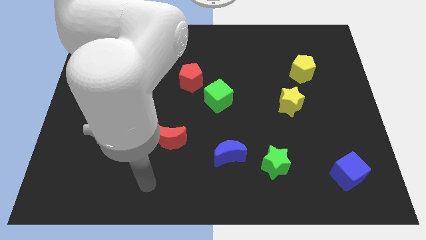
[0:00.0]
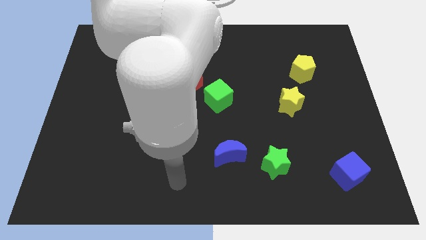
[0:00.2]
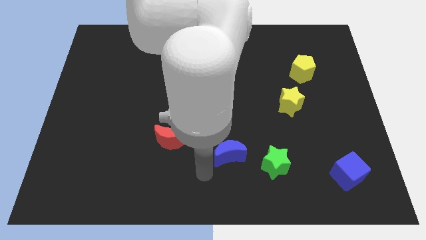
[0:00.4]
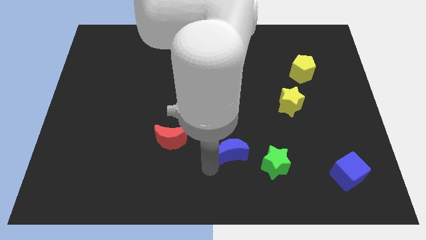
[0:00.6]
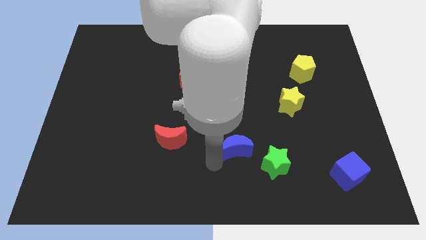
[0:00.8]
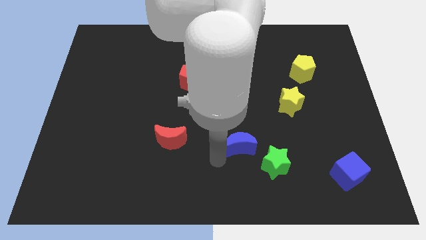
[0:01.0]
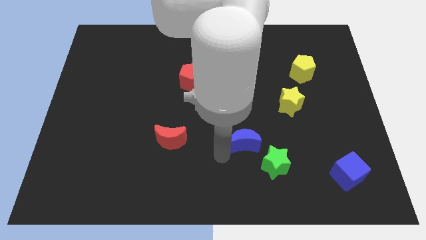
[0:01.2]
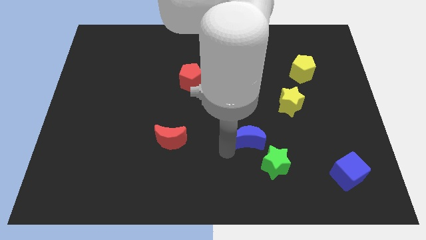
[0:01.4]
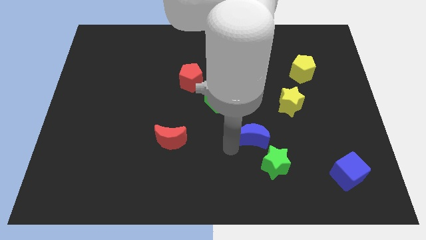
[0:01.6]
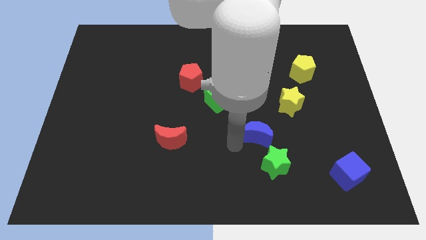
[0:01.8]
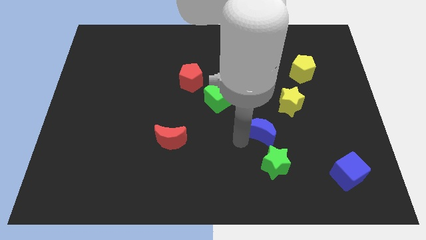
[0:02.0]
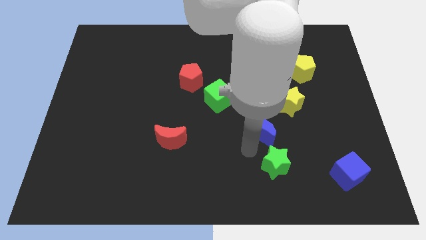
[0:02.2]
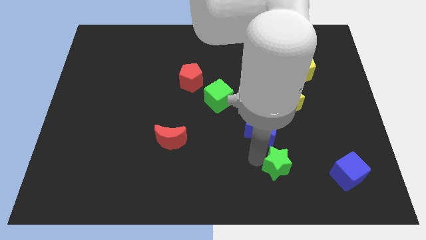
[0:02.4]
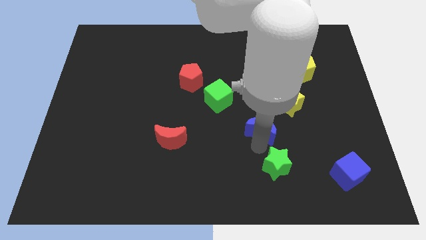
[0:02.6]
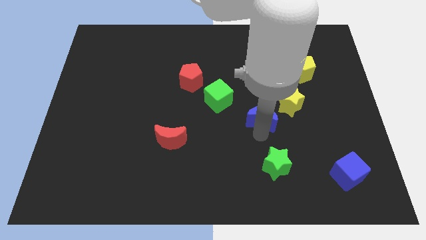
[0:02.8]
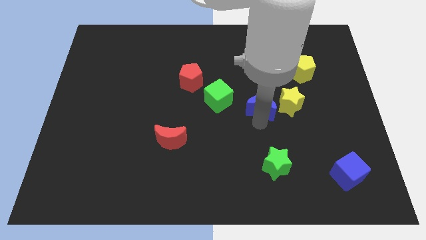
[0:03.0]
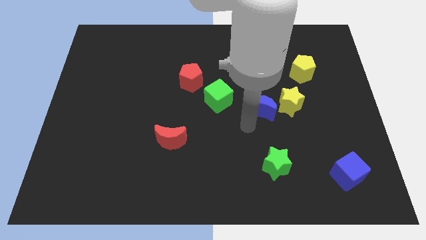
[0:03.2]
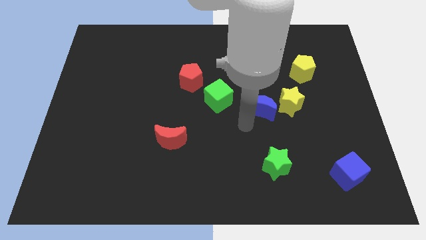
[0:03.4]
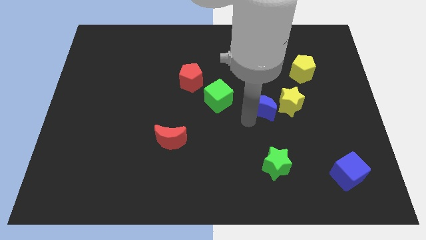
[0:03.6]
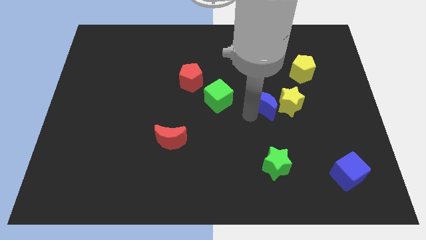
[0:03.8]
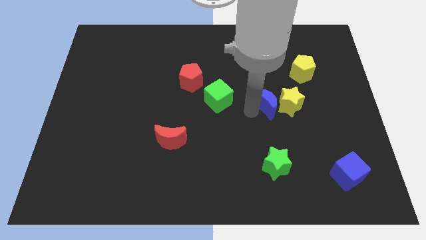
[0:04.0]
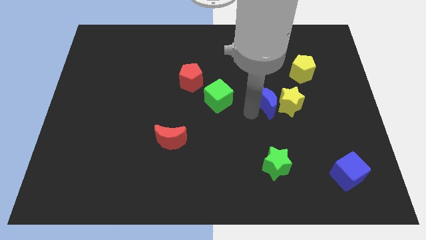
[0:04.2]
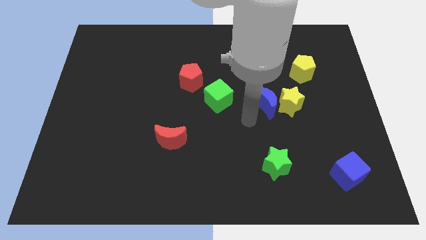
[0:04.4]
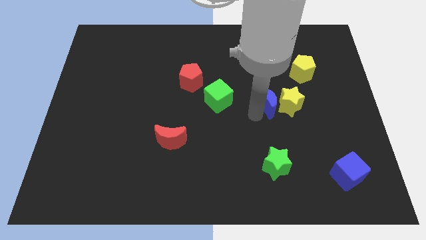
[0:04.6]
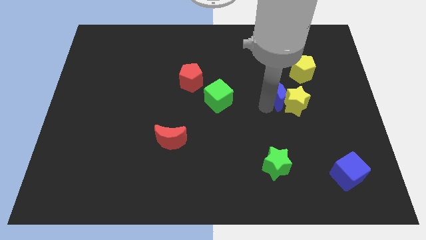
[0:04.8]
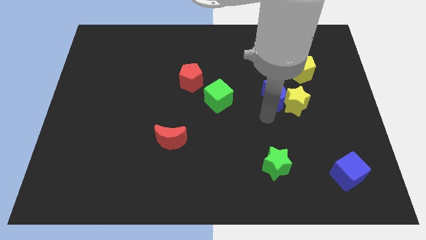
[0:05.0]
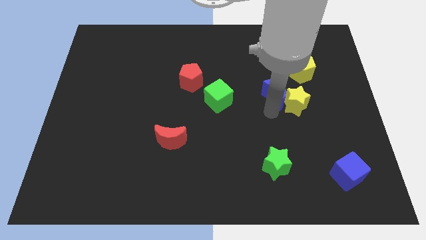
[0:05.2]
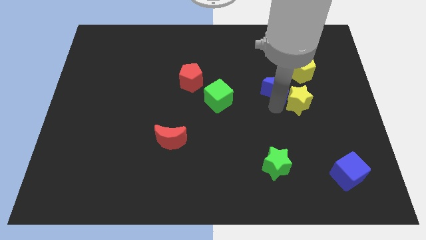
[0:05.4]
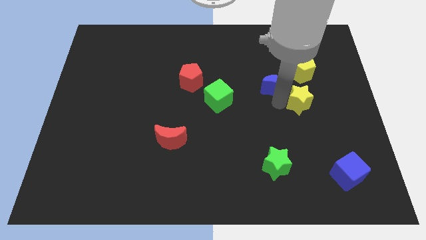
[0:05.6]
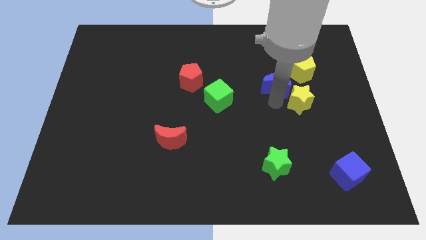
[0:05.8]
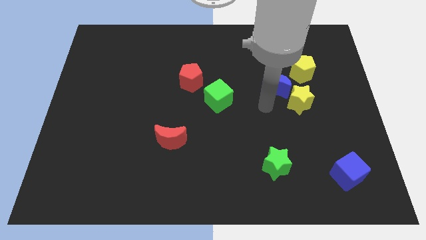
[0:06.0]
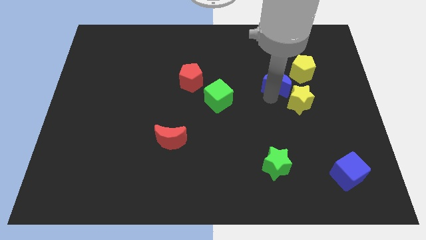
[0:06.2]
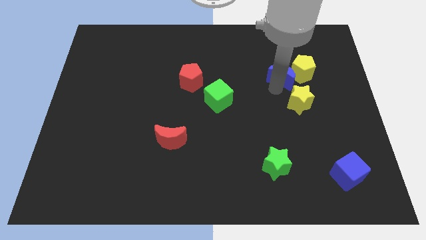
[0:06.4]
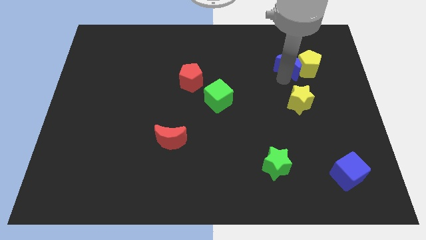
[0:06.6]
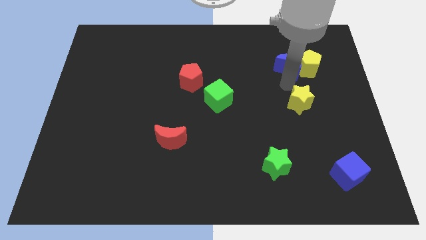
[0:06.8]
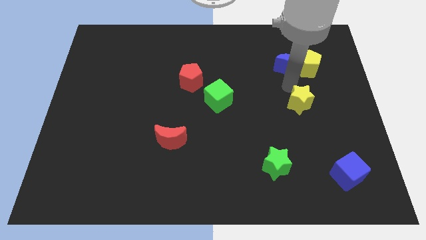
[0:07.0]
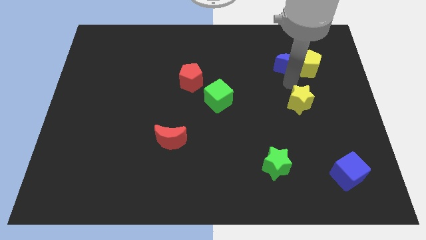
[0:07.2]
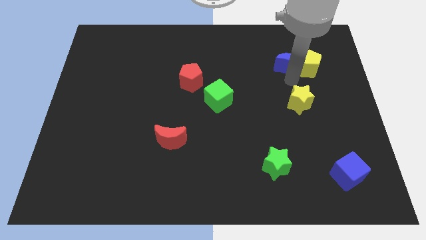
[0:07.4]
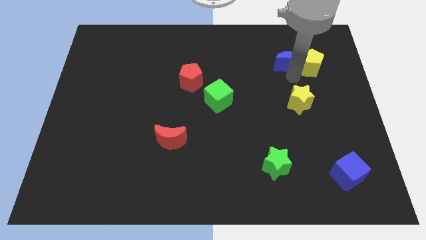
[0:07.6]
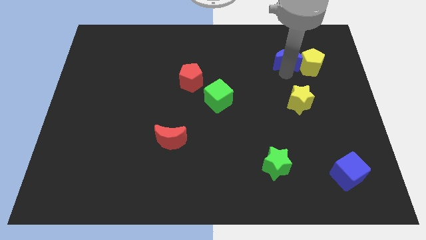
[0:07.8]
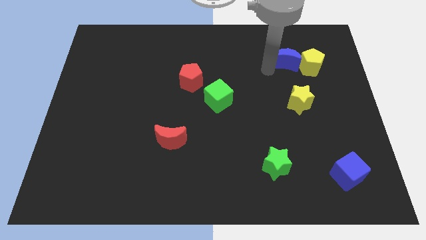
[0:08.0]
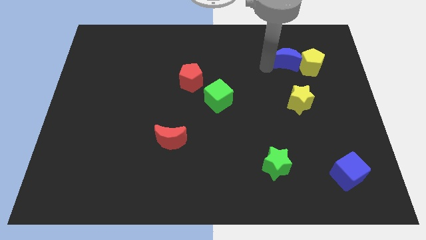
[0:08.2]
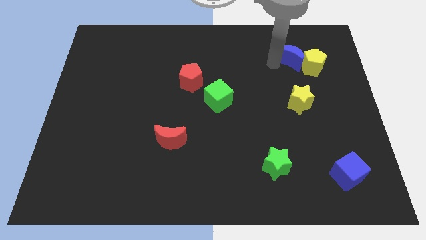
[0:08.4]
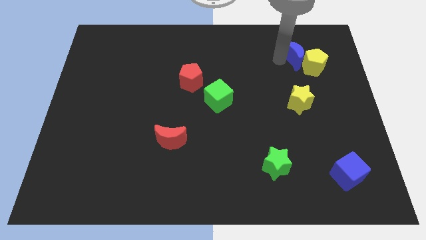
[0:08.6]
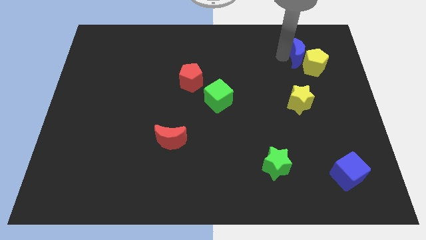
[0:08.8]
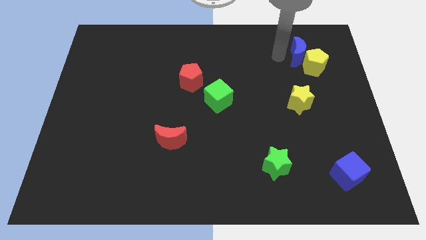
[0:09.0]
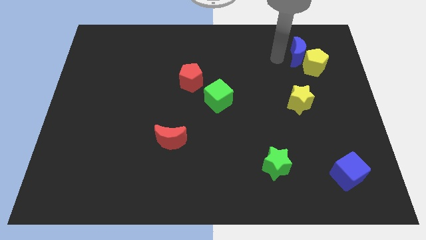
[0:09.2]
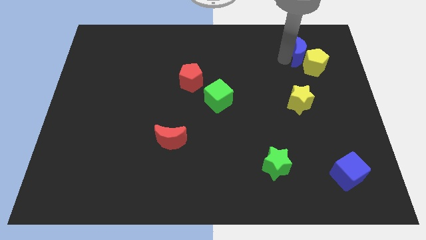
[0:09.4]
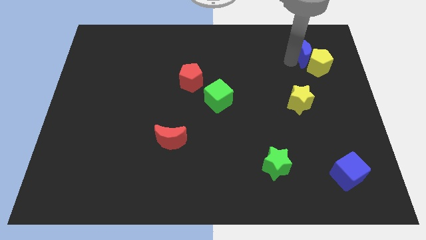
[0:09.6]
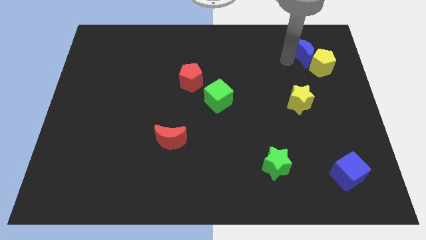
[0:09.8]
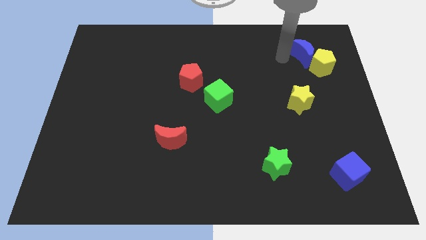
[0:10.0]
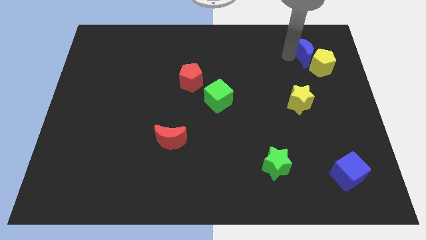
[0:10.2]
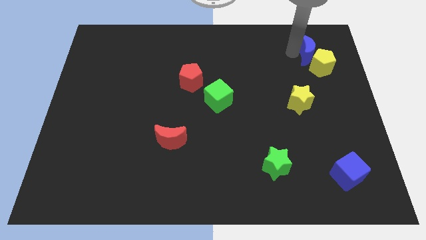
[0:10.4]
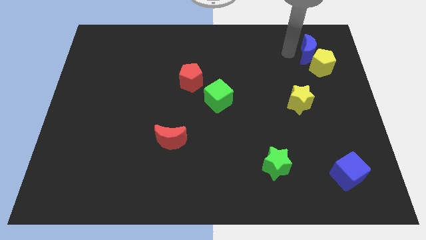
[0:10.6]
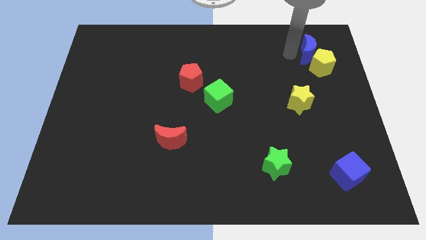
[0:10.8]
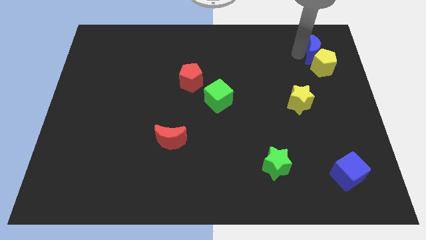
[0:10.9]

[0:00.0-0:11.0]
slide the blue moon to the top right side of the yellow pentagon

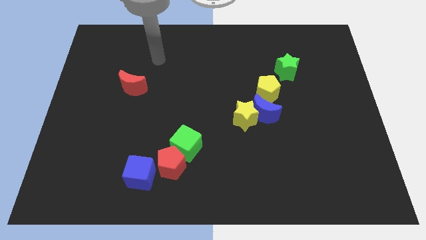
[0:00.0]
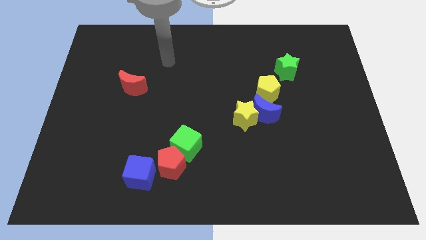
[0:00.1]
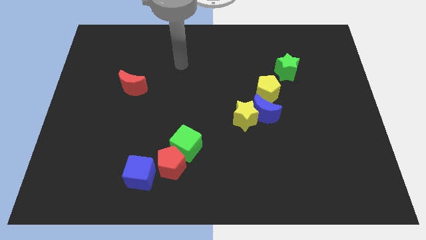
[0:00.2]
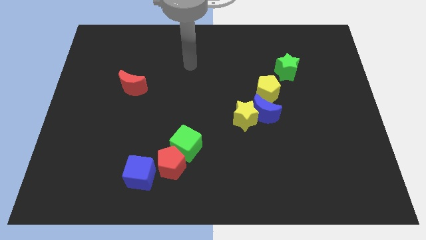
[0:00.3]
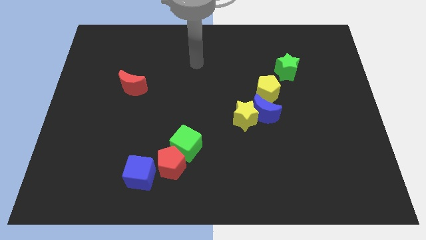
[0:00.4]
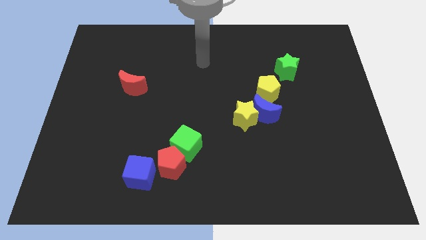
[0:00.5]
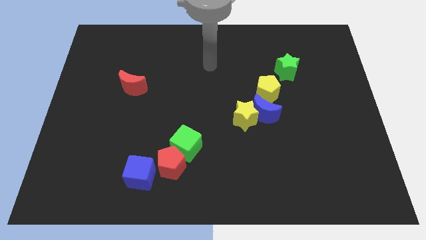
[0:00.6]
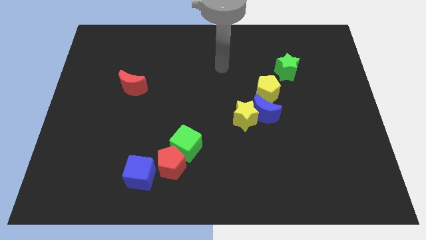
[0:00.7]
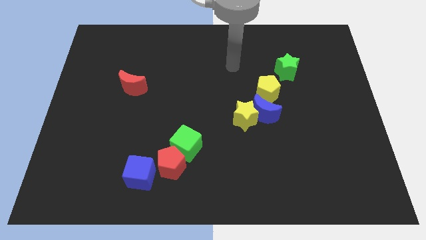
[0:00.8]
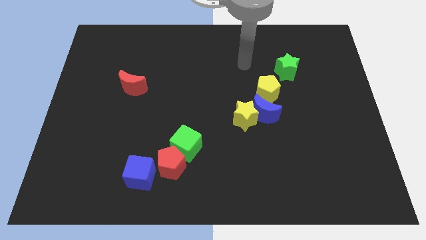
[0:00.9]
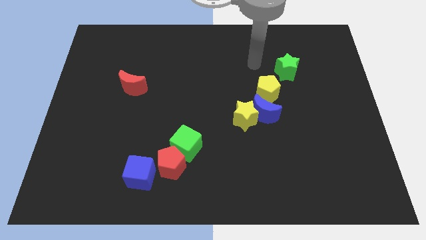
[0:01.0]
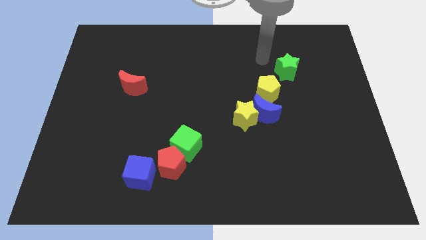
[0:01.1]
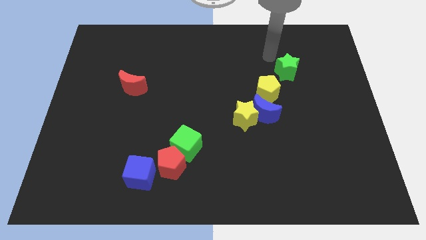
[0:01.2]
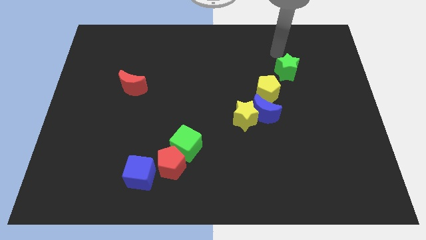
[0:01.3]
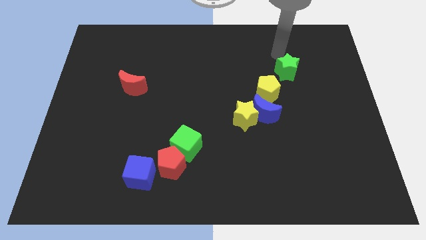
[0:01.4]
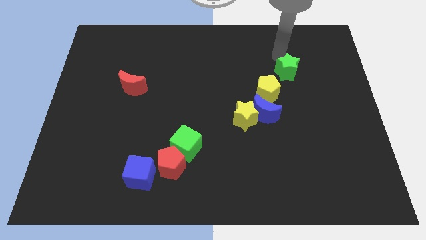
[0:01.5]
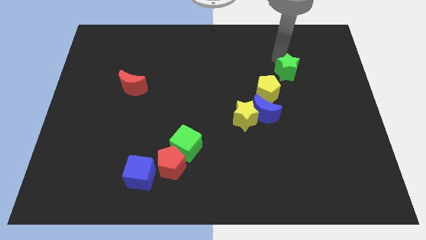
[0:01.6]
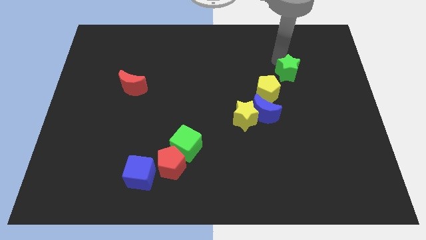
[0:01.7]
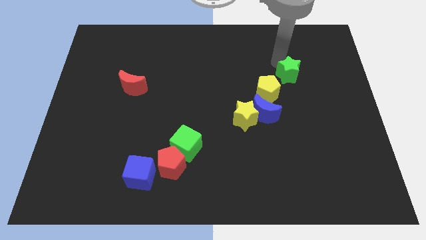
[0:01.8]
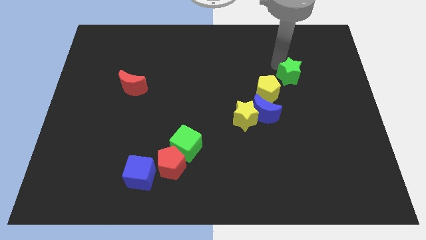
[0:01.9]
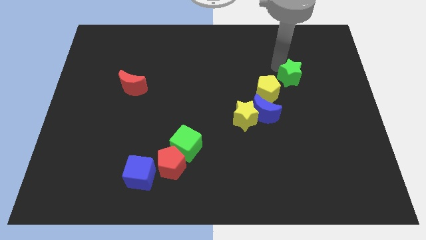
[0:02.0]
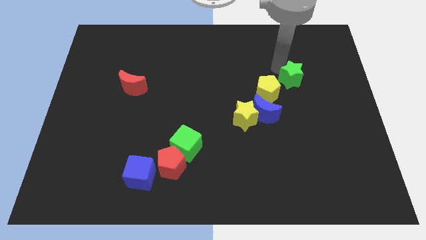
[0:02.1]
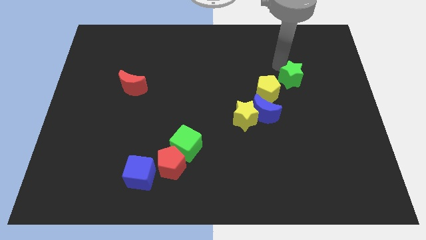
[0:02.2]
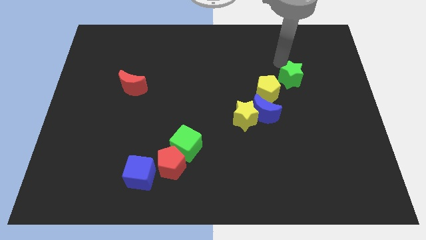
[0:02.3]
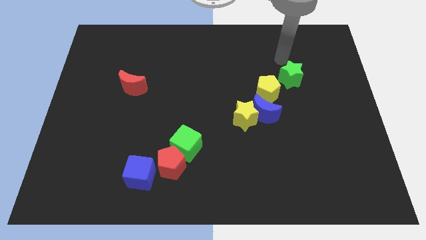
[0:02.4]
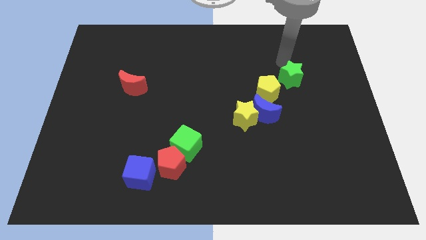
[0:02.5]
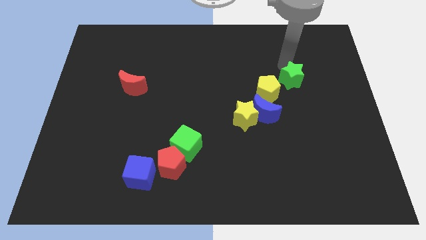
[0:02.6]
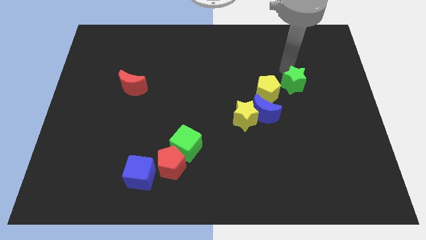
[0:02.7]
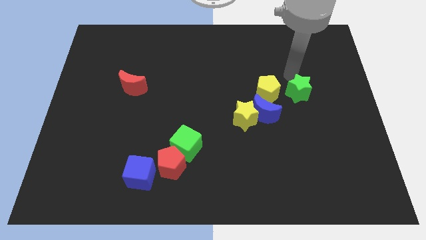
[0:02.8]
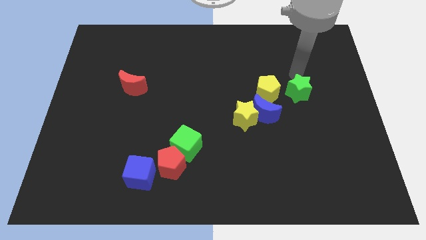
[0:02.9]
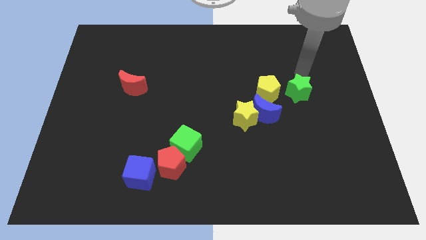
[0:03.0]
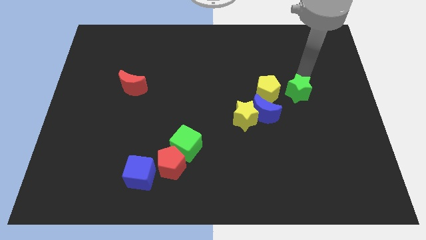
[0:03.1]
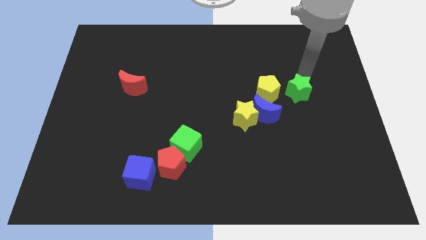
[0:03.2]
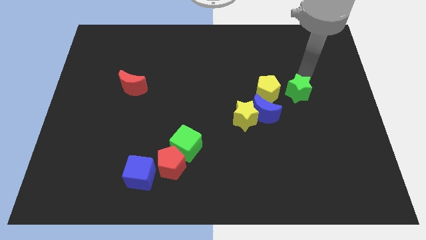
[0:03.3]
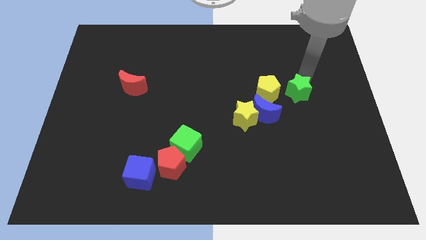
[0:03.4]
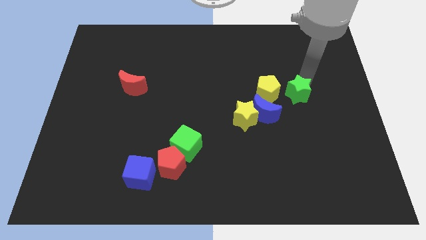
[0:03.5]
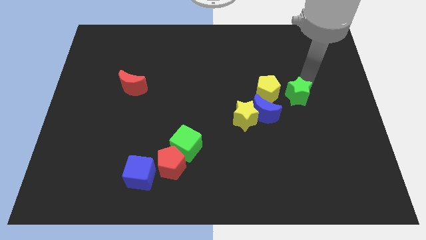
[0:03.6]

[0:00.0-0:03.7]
move the green star to the bottom right of the yellow pentagon
